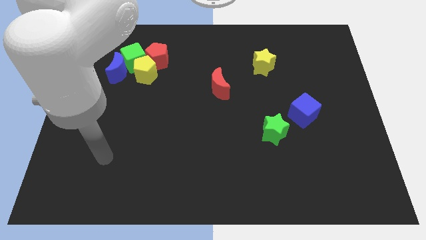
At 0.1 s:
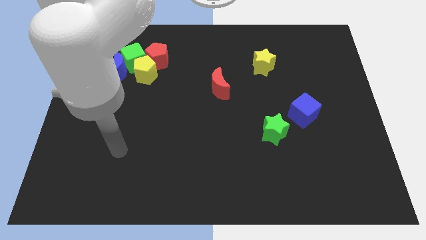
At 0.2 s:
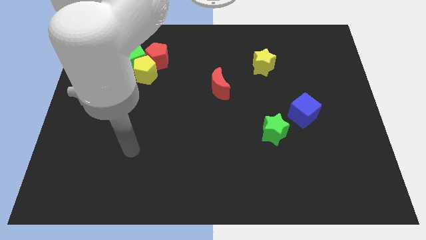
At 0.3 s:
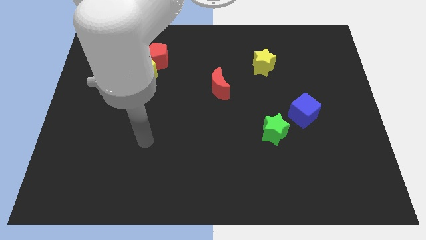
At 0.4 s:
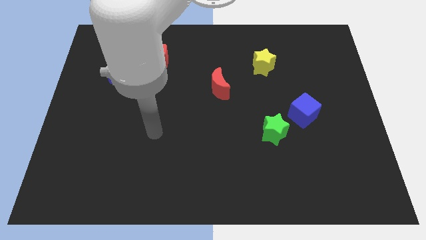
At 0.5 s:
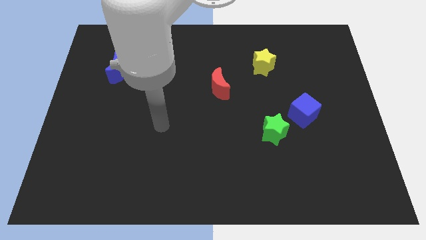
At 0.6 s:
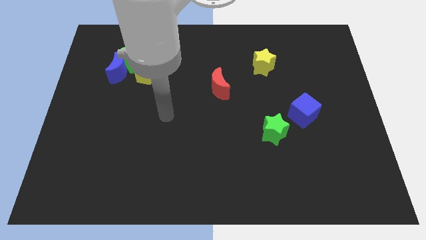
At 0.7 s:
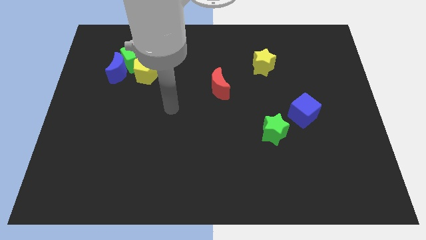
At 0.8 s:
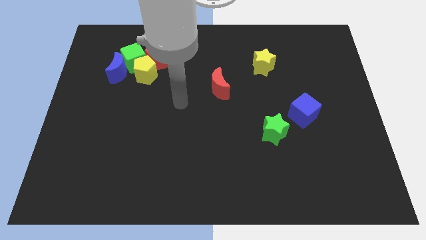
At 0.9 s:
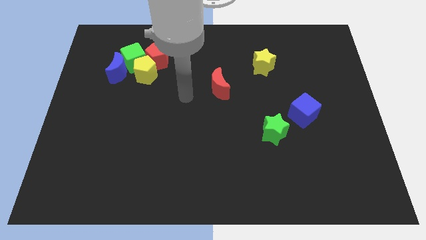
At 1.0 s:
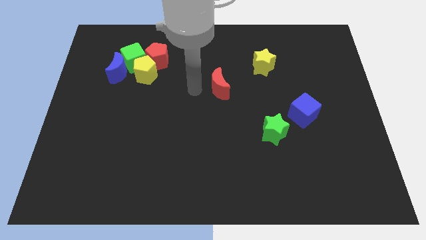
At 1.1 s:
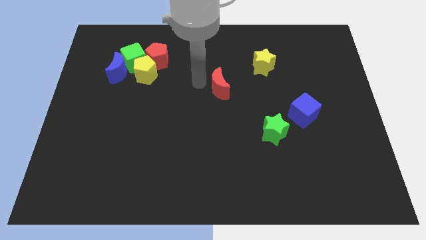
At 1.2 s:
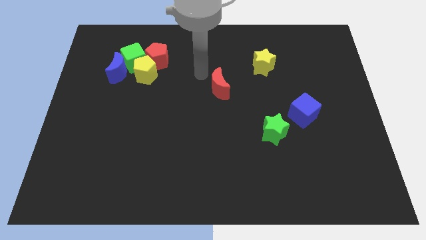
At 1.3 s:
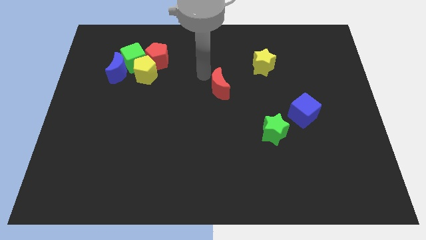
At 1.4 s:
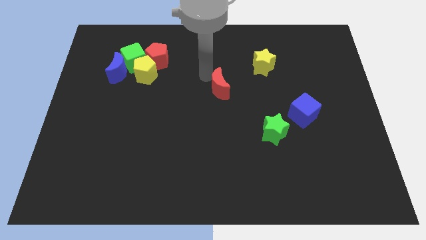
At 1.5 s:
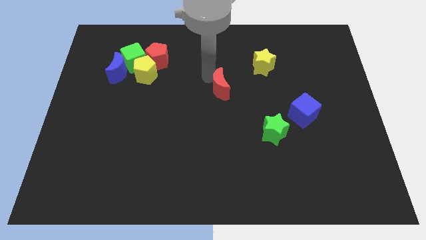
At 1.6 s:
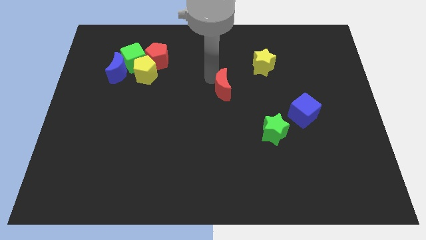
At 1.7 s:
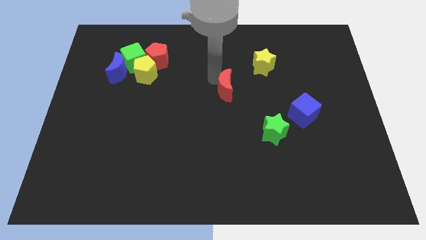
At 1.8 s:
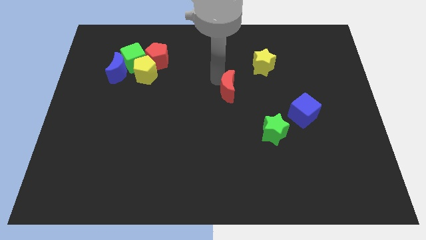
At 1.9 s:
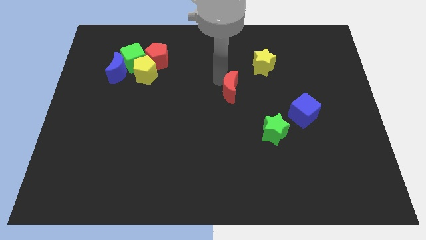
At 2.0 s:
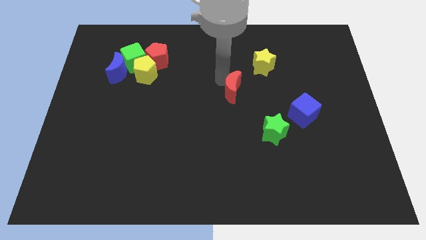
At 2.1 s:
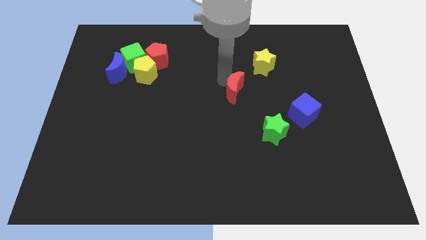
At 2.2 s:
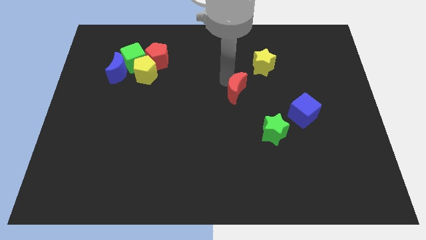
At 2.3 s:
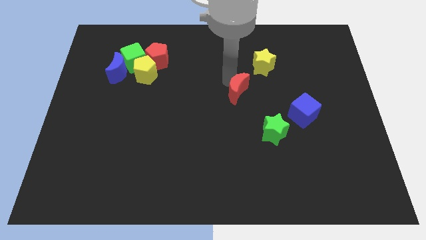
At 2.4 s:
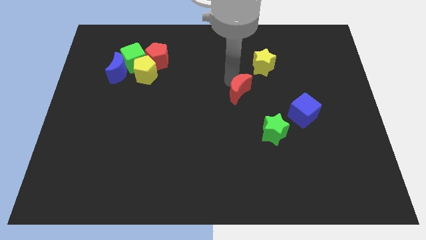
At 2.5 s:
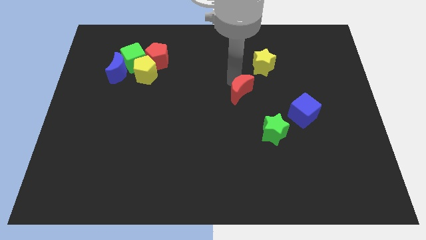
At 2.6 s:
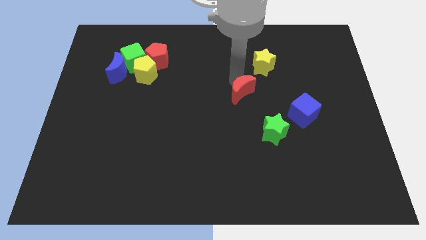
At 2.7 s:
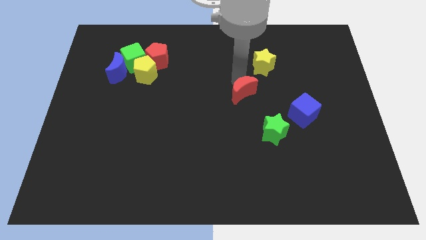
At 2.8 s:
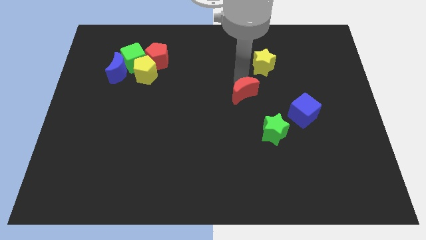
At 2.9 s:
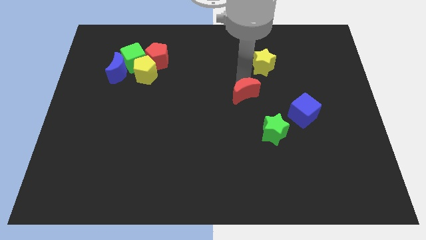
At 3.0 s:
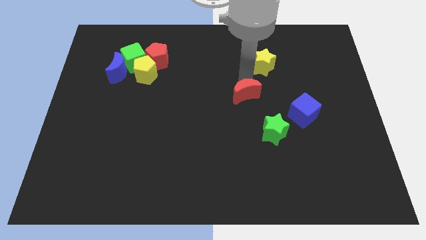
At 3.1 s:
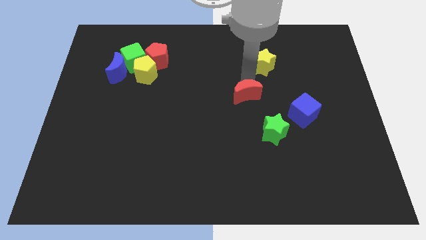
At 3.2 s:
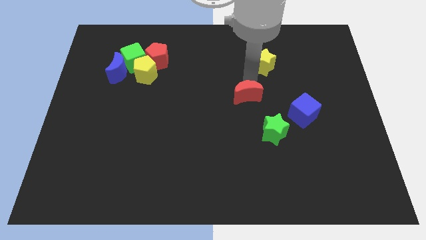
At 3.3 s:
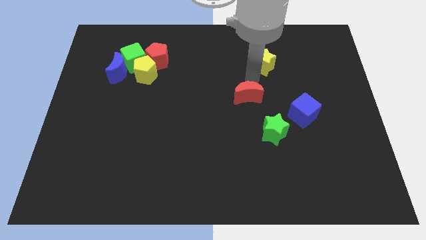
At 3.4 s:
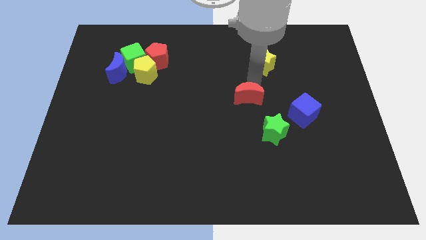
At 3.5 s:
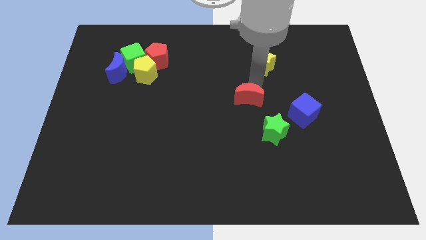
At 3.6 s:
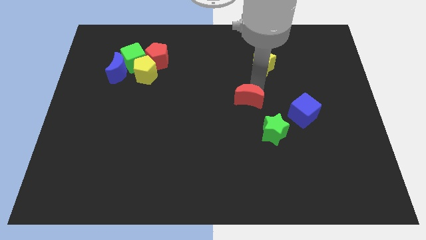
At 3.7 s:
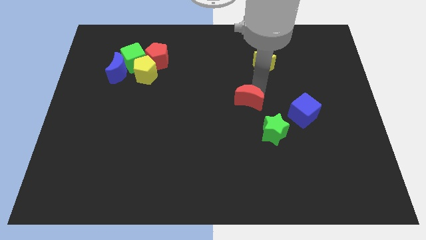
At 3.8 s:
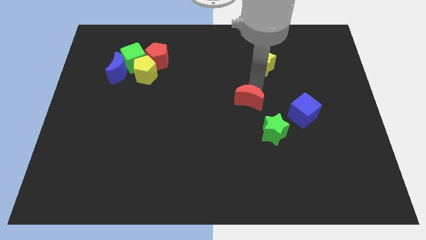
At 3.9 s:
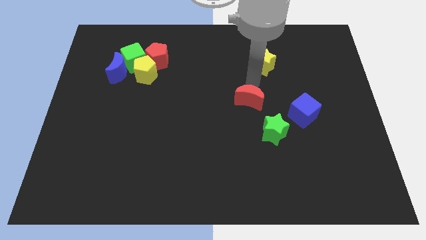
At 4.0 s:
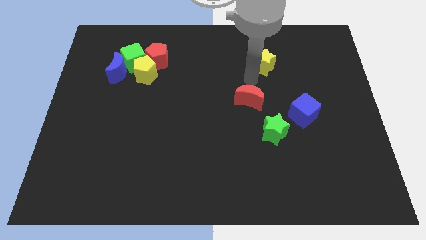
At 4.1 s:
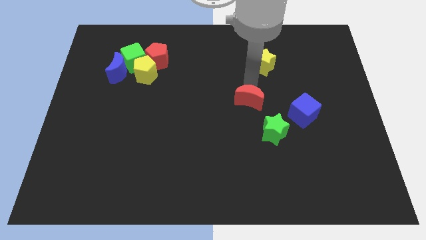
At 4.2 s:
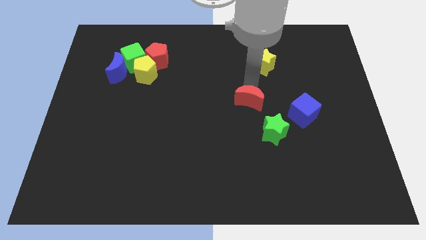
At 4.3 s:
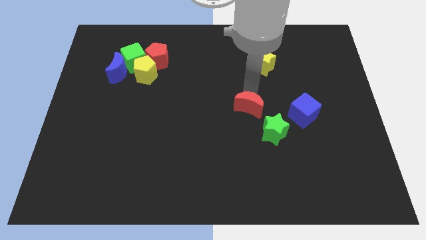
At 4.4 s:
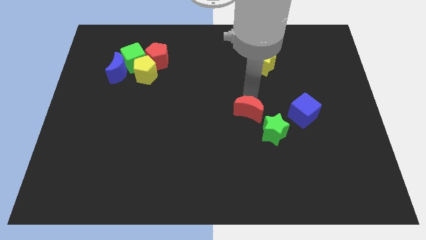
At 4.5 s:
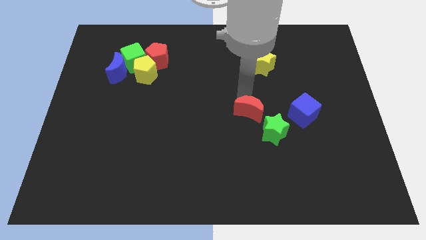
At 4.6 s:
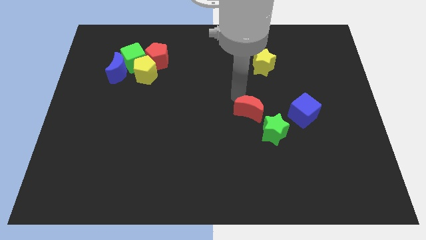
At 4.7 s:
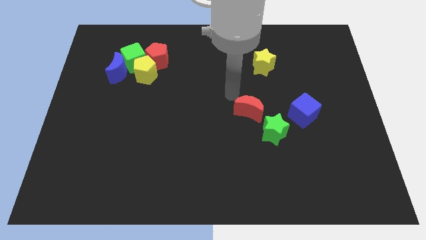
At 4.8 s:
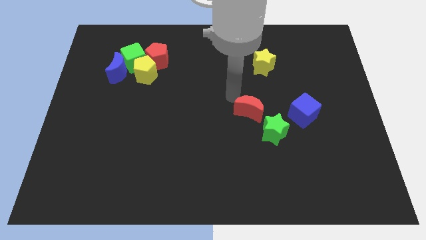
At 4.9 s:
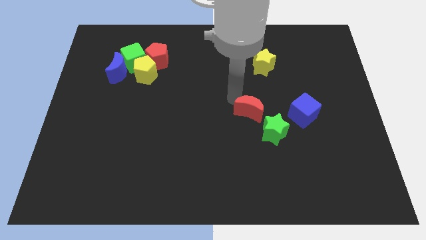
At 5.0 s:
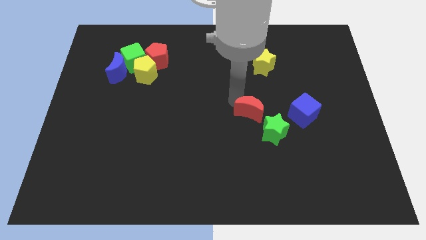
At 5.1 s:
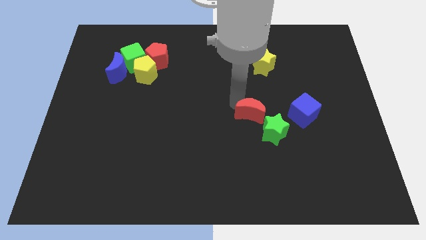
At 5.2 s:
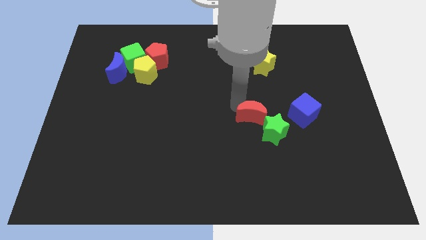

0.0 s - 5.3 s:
slide the red moon close to the green star

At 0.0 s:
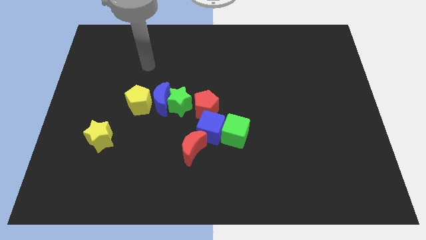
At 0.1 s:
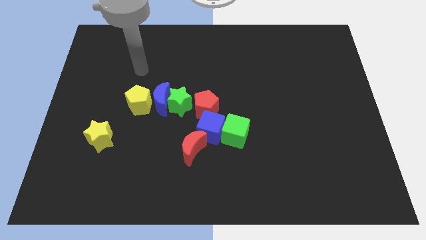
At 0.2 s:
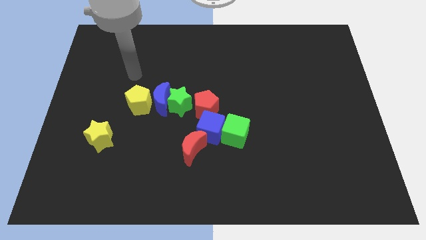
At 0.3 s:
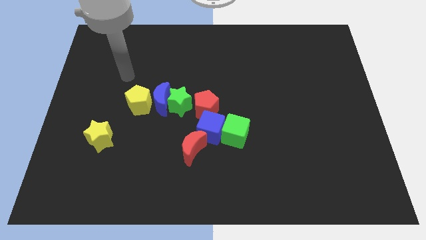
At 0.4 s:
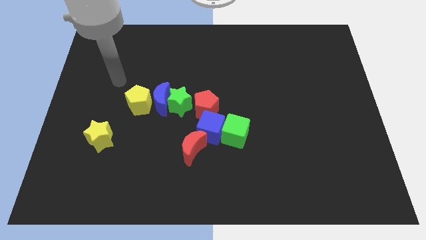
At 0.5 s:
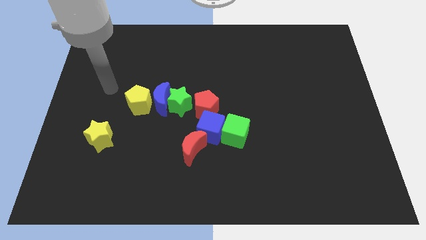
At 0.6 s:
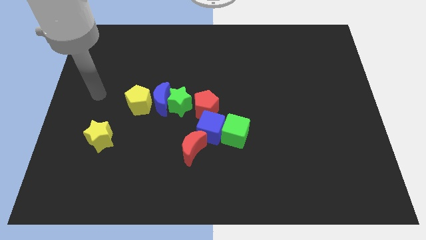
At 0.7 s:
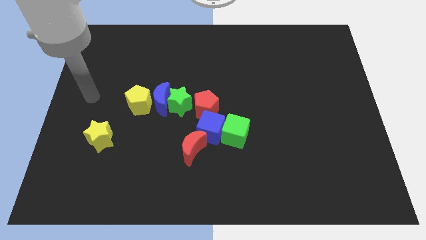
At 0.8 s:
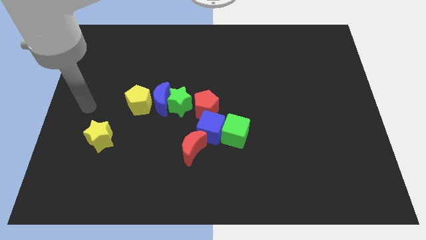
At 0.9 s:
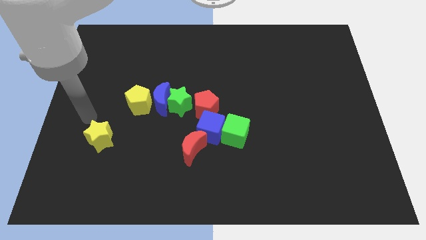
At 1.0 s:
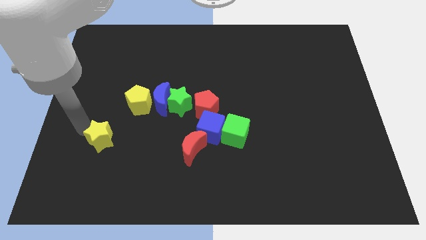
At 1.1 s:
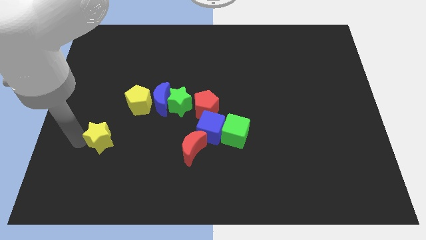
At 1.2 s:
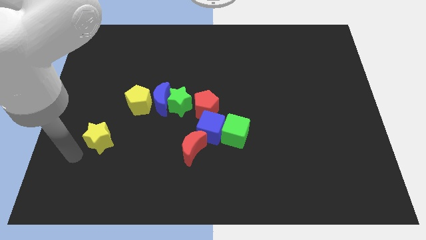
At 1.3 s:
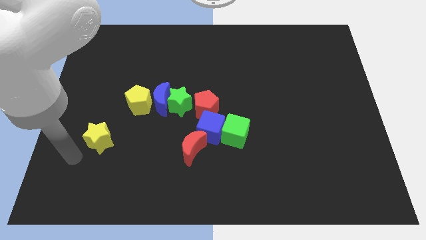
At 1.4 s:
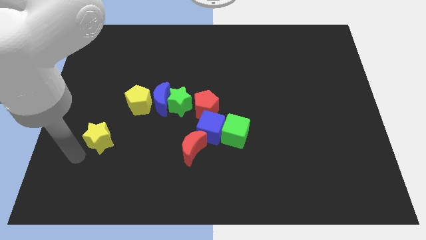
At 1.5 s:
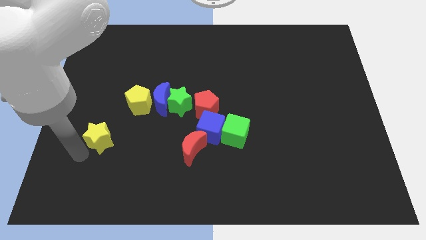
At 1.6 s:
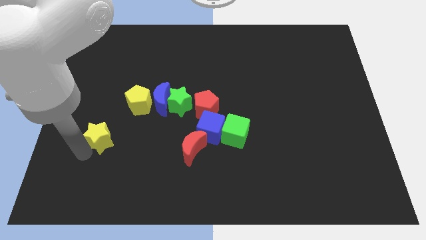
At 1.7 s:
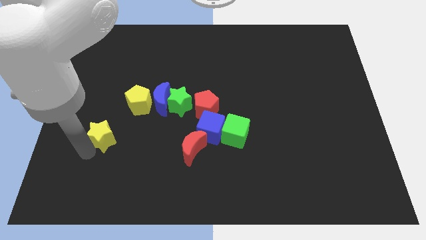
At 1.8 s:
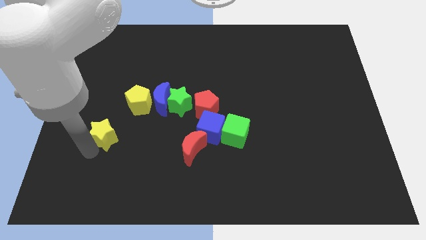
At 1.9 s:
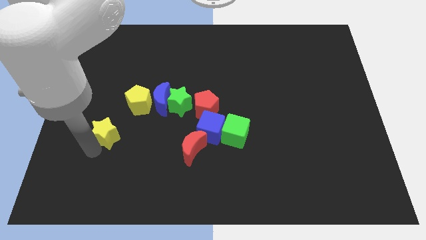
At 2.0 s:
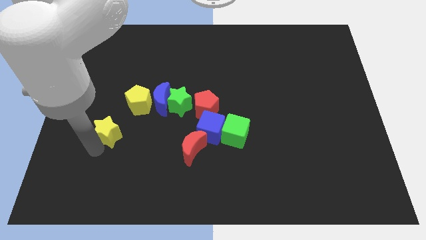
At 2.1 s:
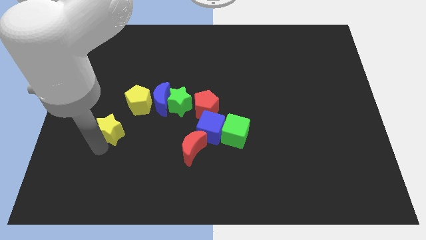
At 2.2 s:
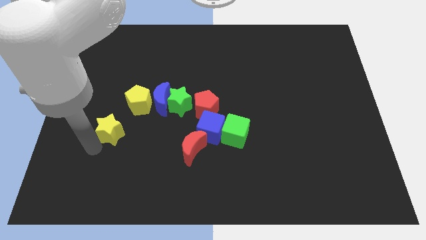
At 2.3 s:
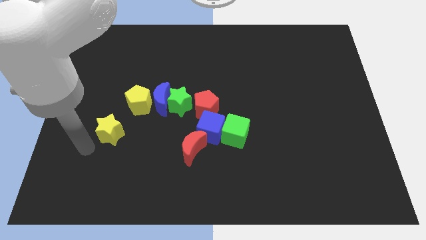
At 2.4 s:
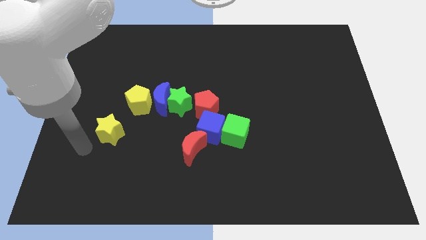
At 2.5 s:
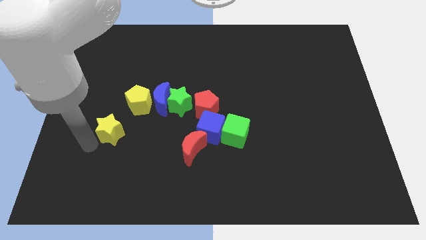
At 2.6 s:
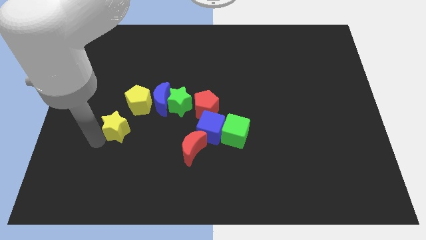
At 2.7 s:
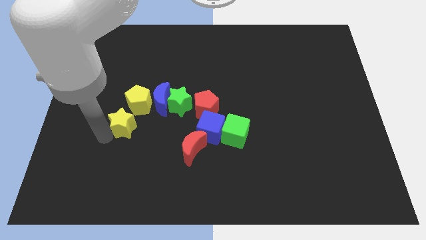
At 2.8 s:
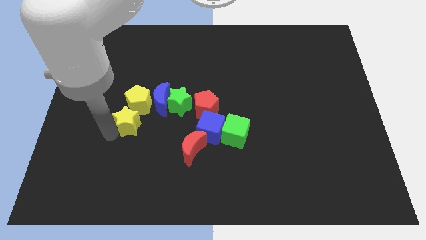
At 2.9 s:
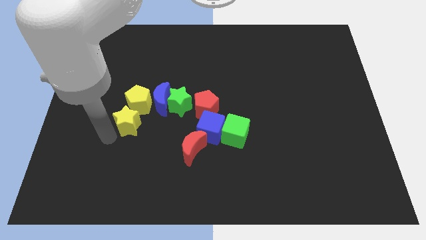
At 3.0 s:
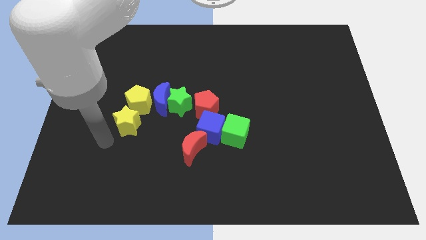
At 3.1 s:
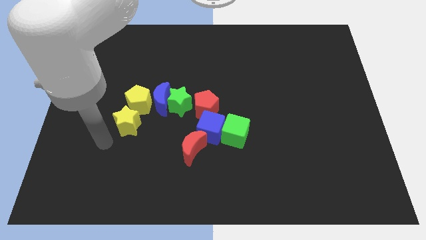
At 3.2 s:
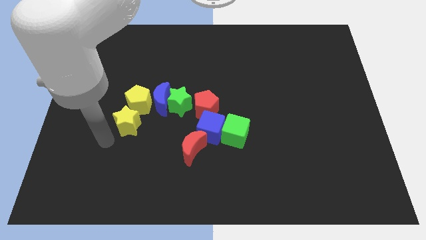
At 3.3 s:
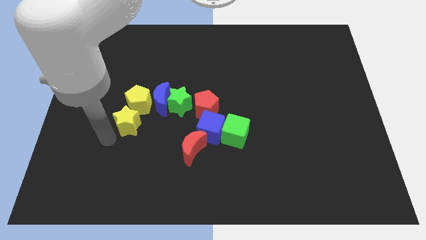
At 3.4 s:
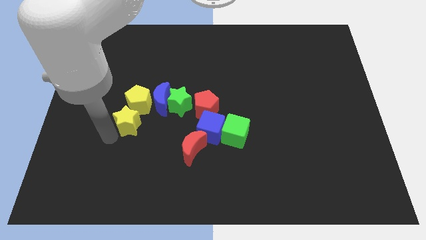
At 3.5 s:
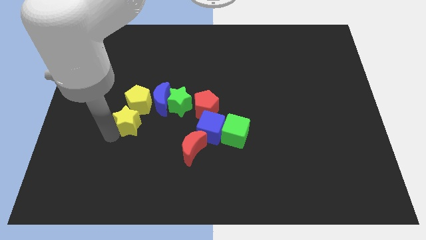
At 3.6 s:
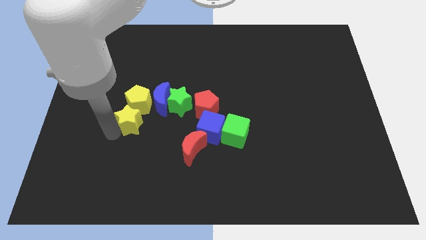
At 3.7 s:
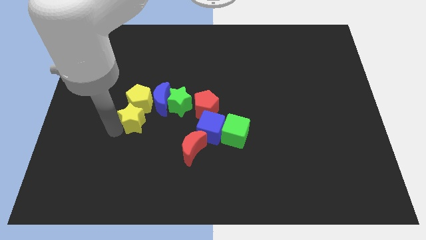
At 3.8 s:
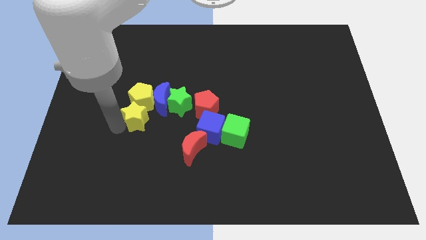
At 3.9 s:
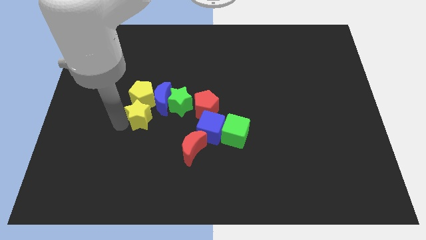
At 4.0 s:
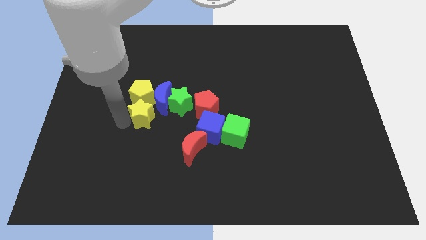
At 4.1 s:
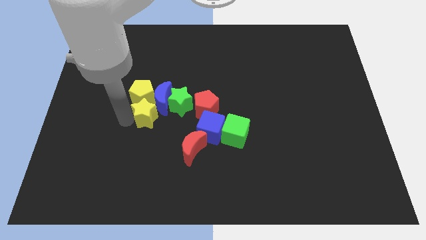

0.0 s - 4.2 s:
push the yellow star towards the blue moon
